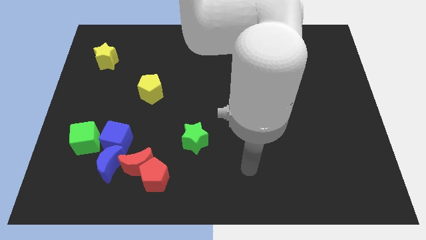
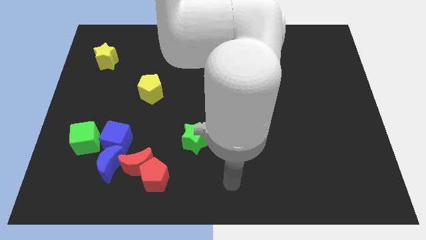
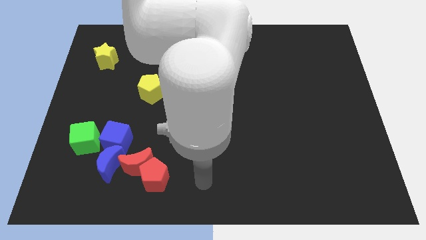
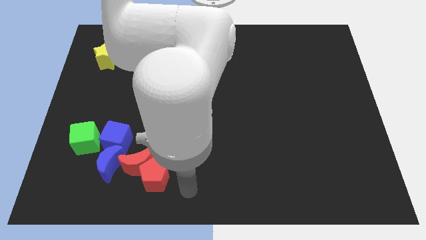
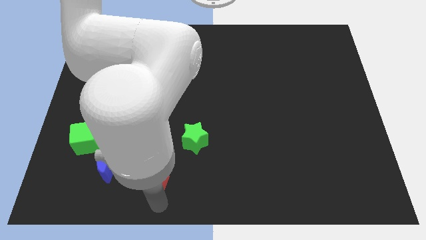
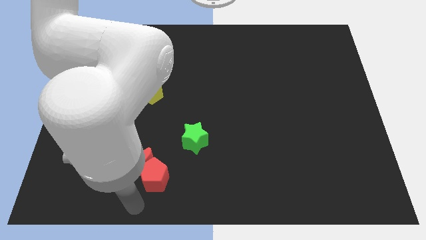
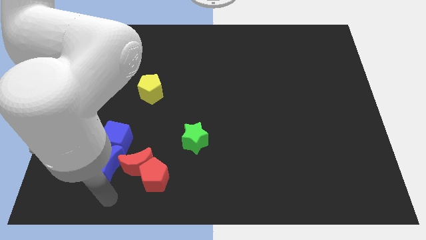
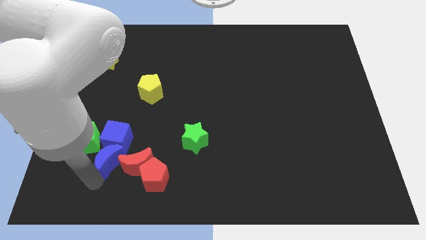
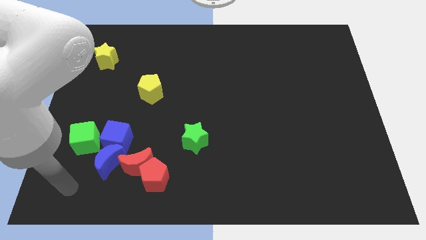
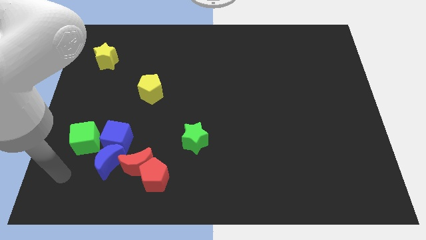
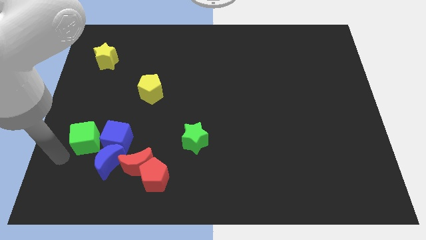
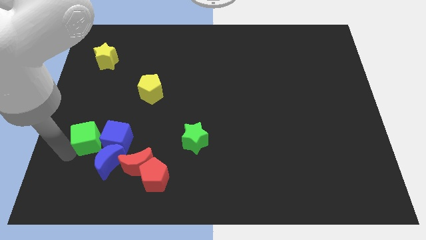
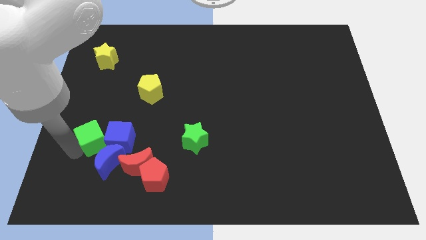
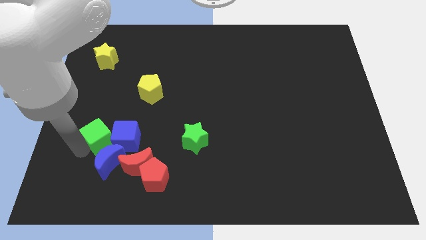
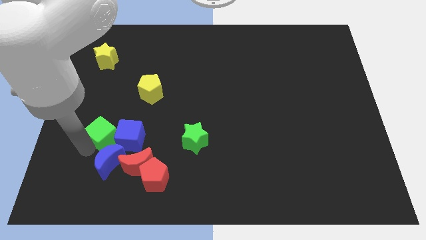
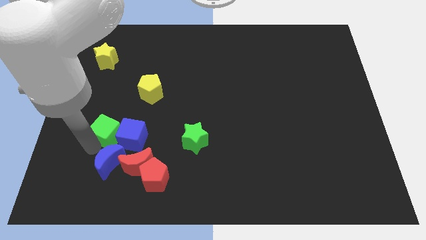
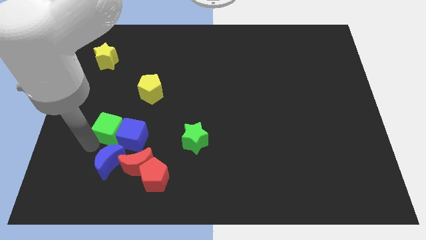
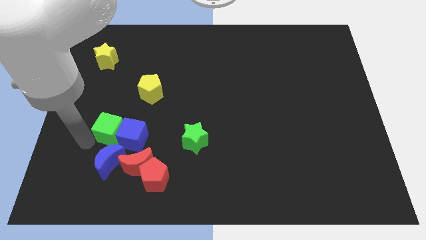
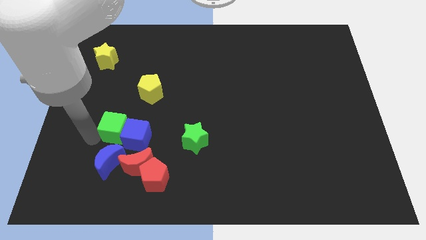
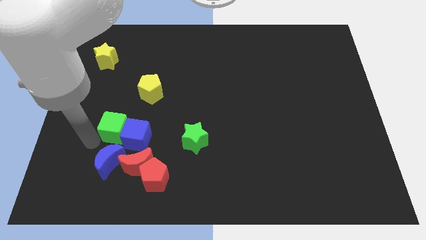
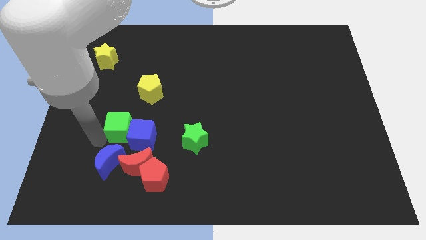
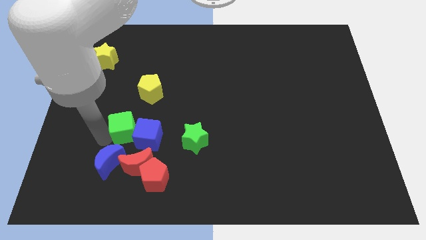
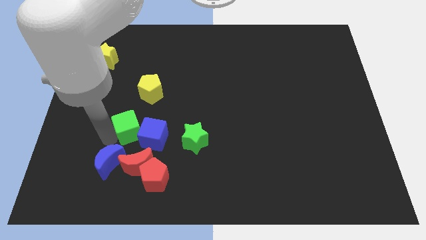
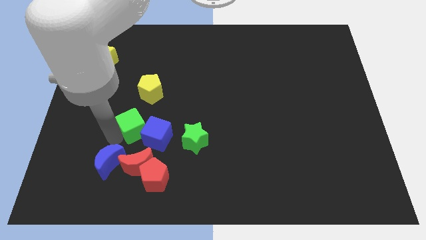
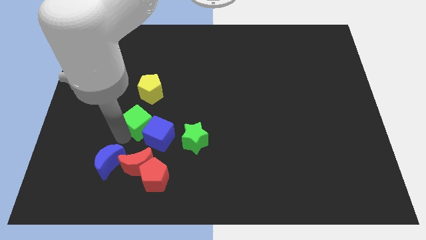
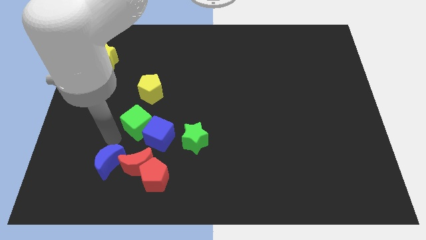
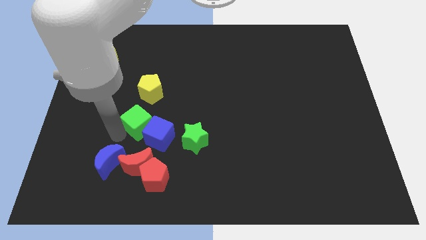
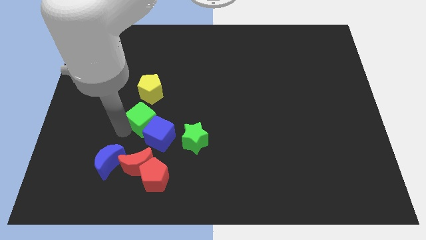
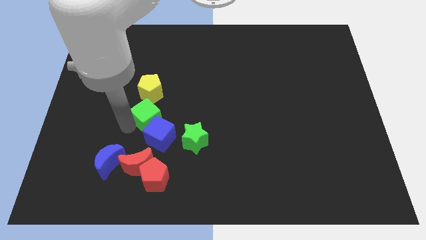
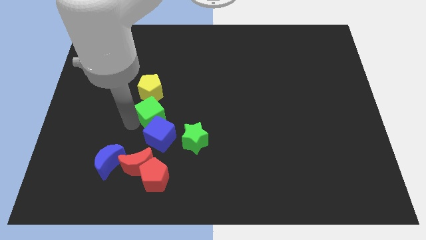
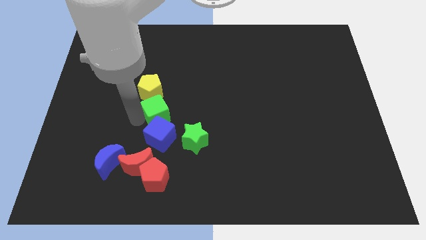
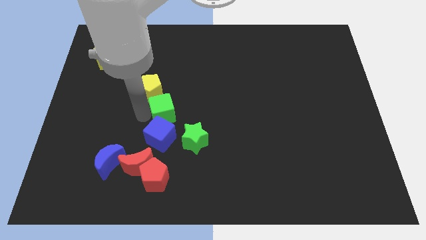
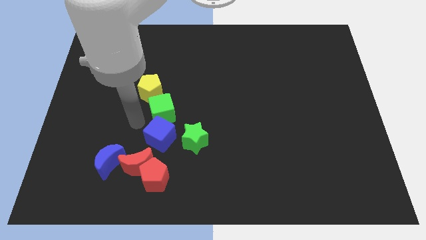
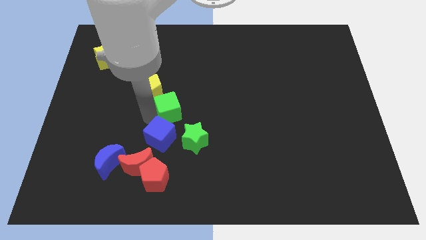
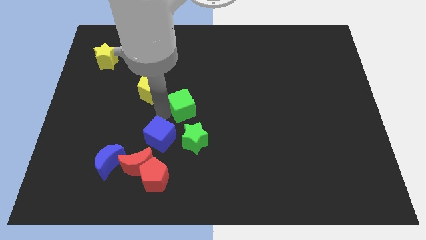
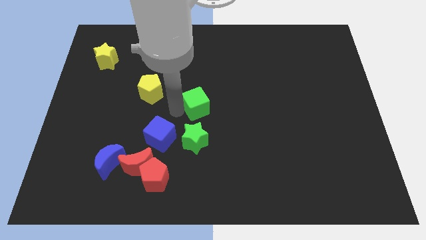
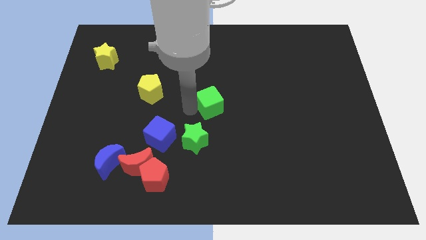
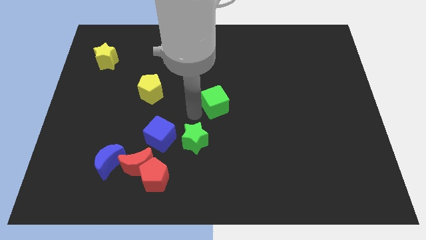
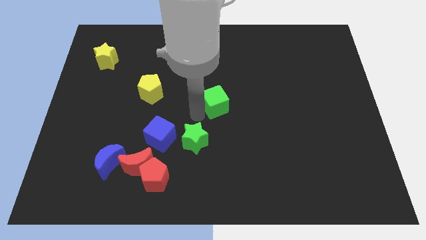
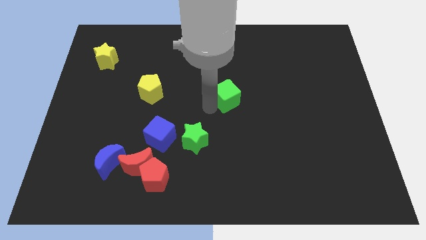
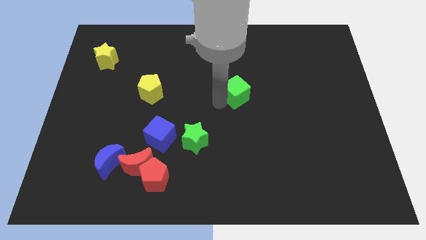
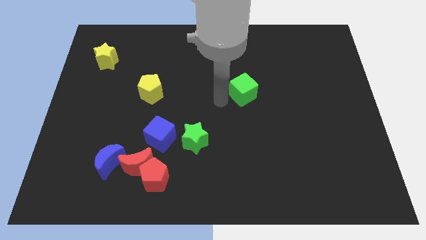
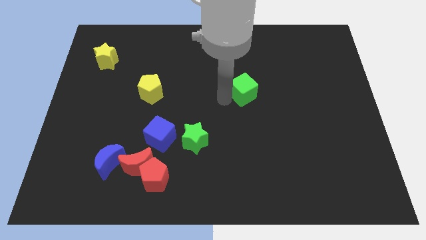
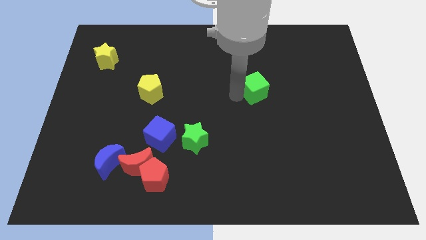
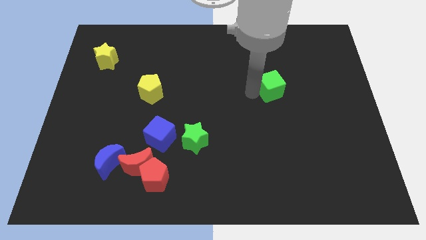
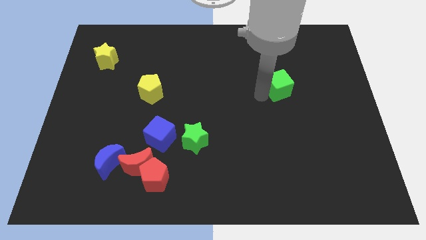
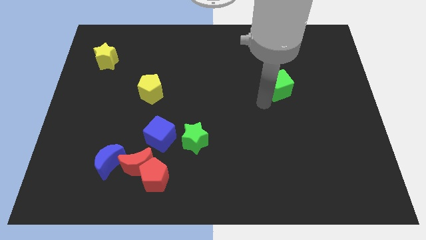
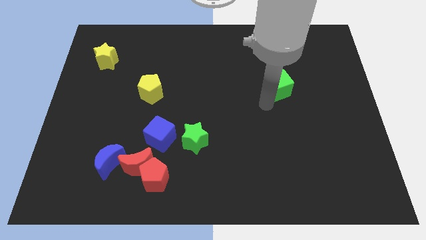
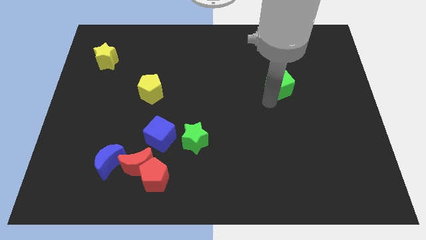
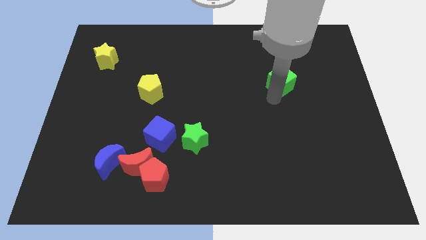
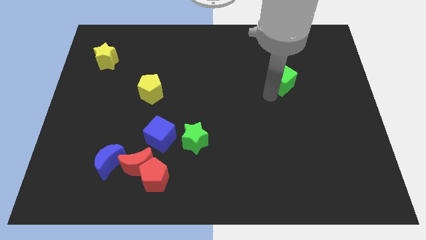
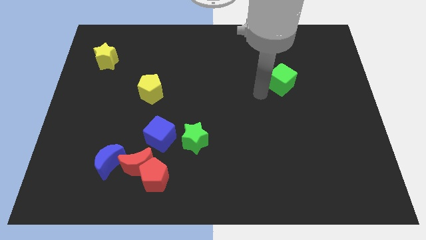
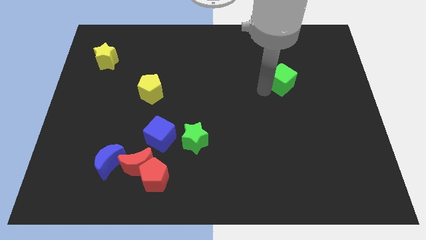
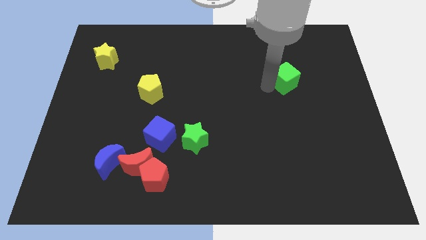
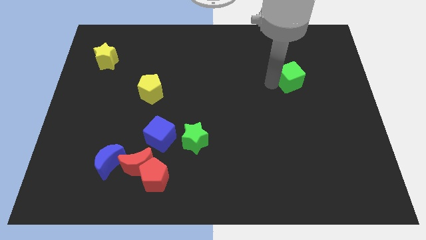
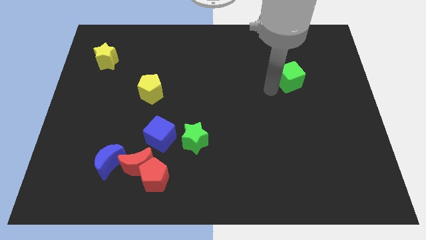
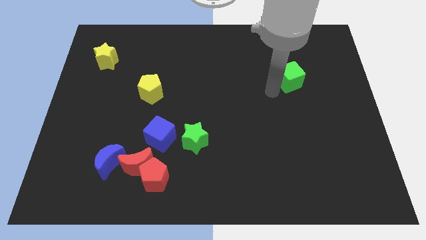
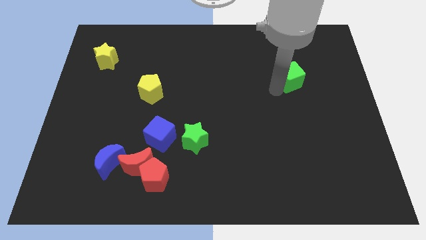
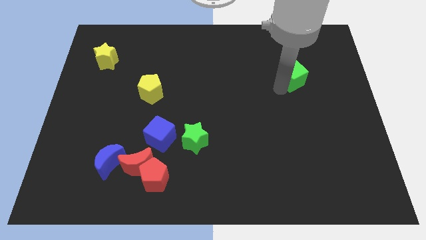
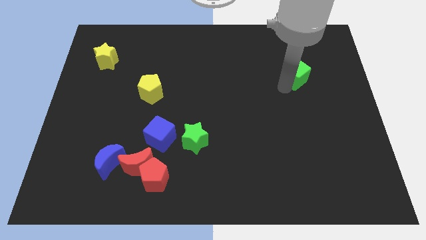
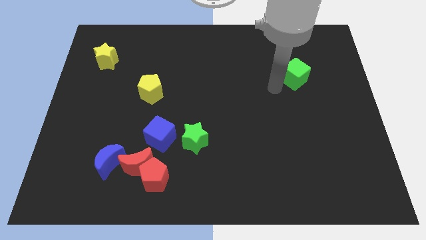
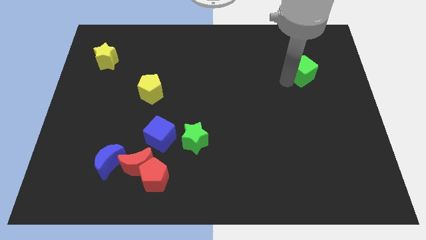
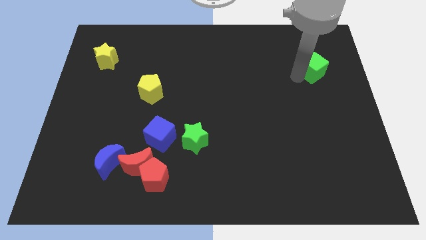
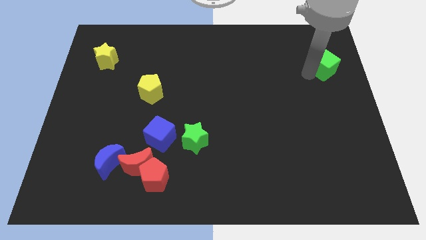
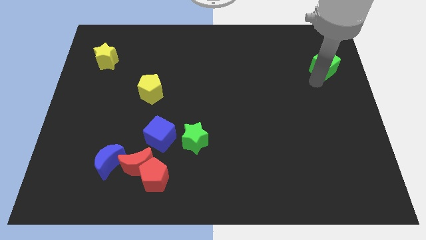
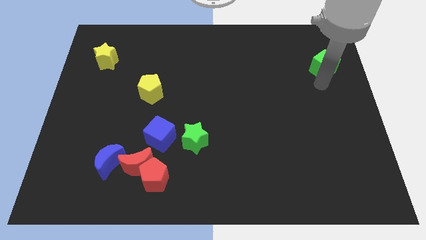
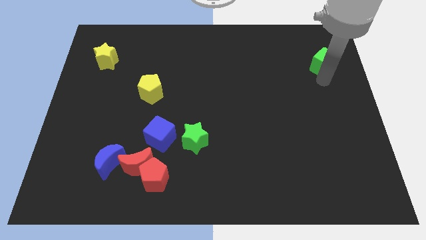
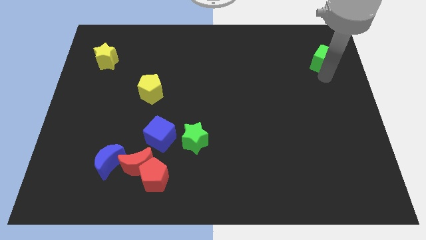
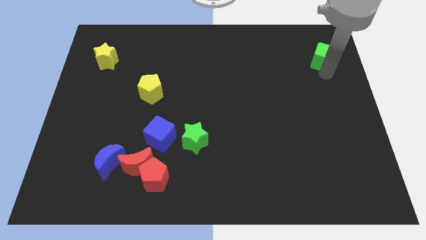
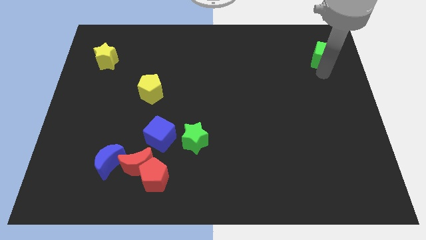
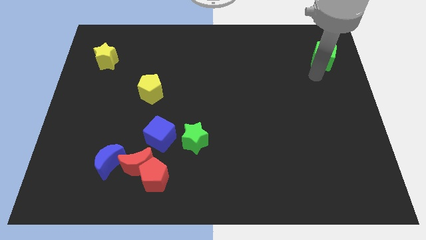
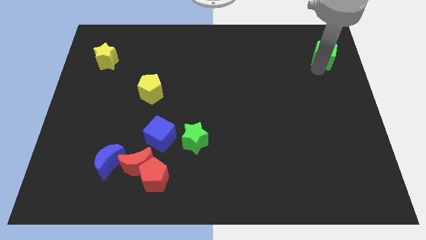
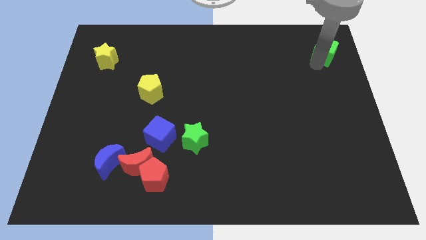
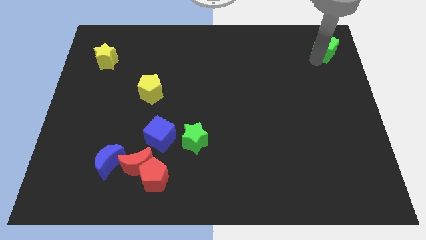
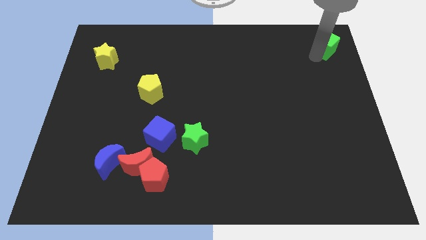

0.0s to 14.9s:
push the green cube to the top right of the board
